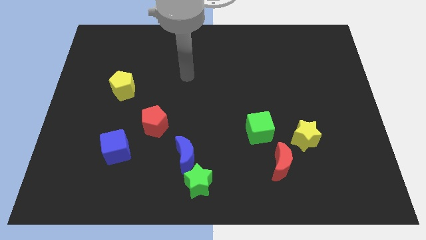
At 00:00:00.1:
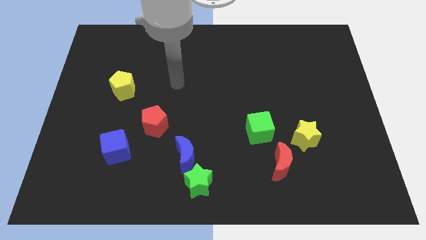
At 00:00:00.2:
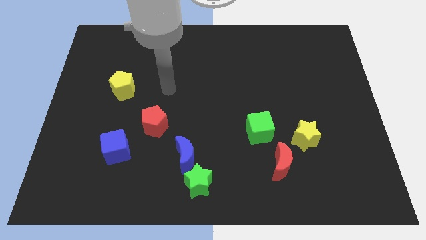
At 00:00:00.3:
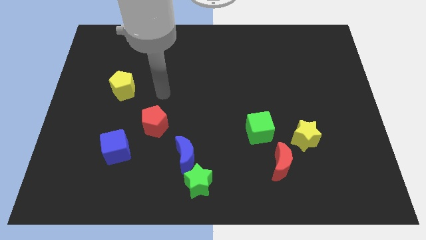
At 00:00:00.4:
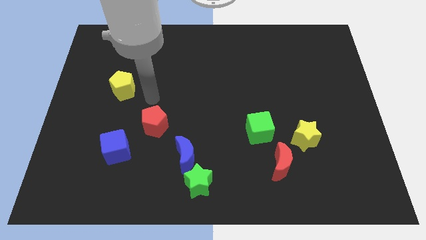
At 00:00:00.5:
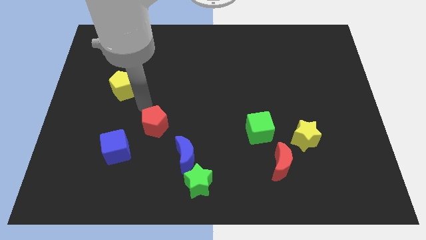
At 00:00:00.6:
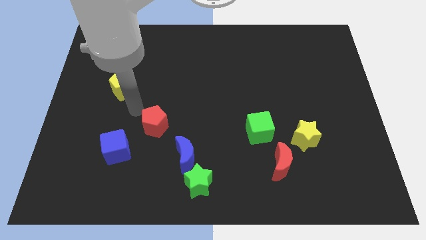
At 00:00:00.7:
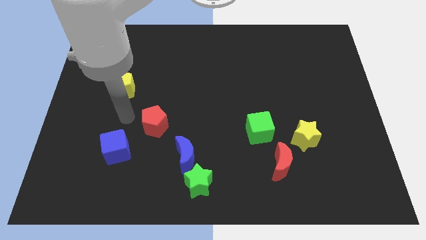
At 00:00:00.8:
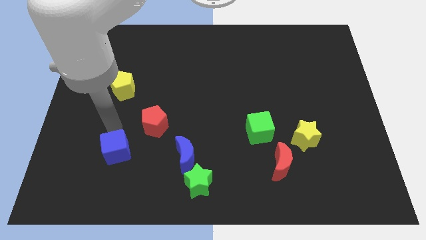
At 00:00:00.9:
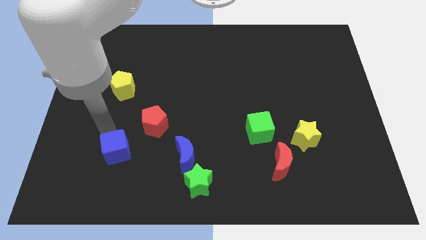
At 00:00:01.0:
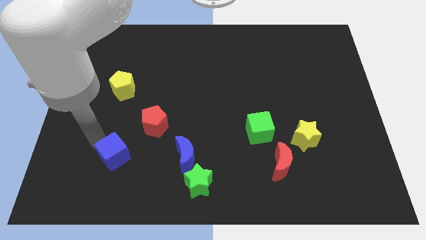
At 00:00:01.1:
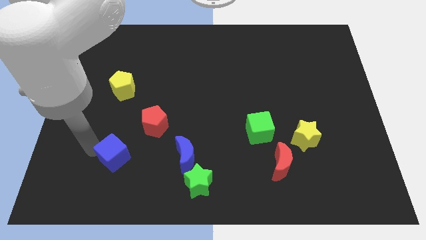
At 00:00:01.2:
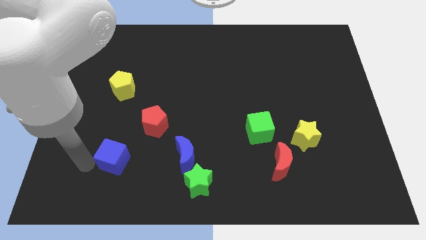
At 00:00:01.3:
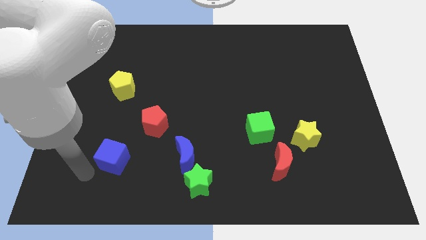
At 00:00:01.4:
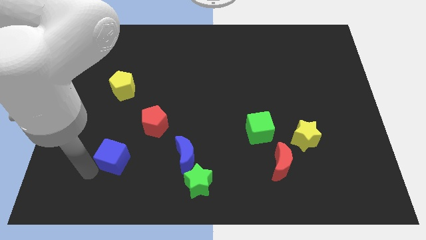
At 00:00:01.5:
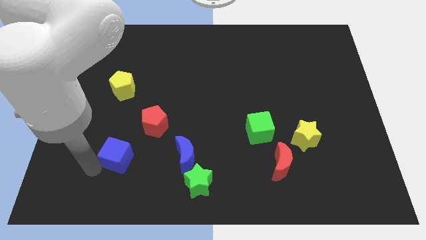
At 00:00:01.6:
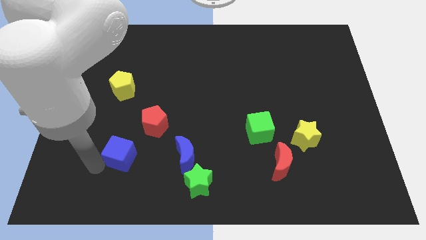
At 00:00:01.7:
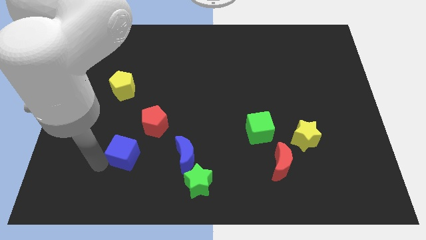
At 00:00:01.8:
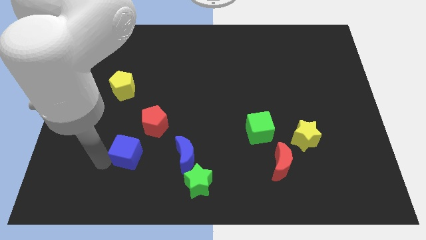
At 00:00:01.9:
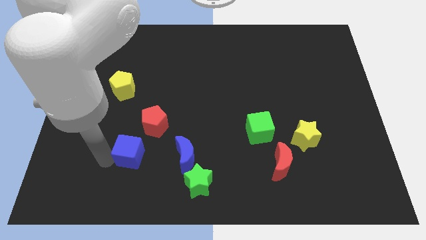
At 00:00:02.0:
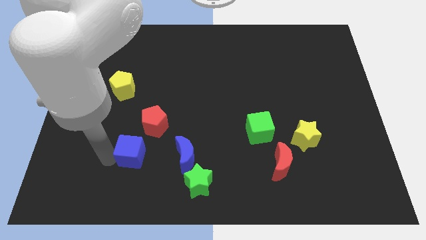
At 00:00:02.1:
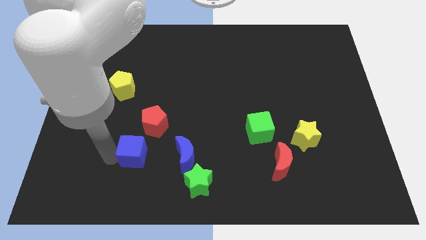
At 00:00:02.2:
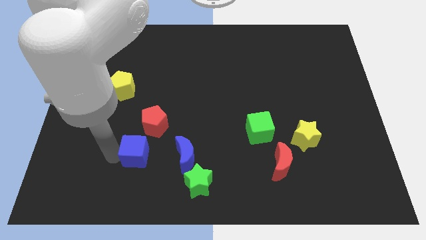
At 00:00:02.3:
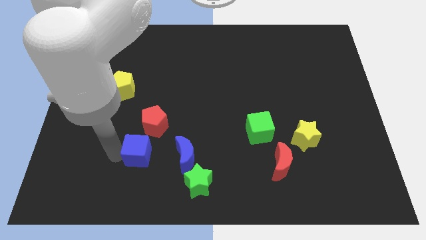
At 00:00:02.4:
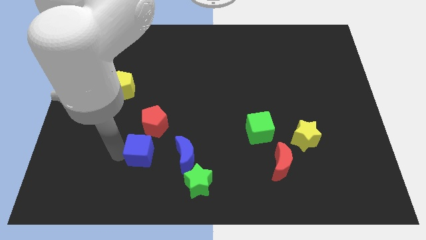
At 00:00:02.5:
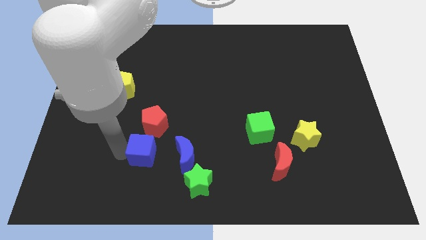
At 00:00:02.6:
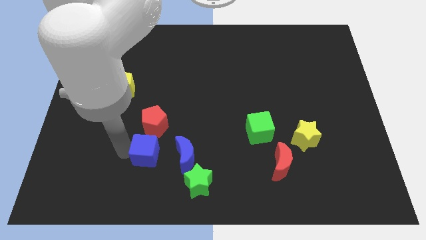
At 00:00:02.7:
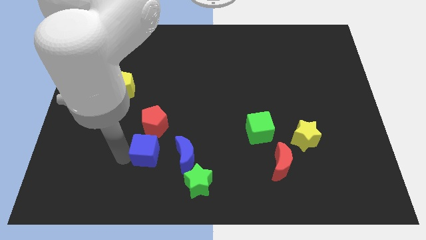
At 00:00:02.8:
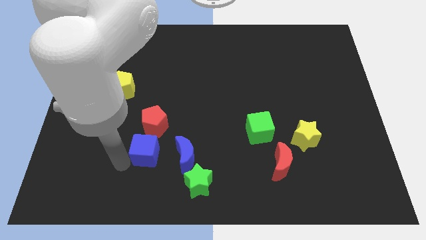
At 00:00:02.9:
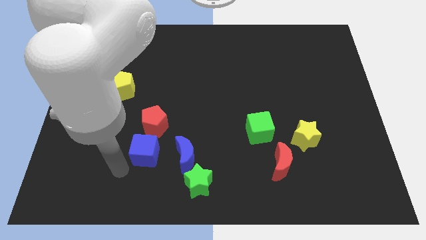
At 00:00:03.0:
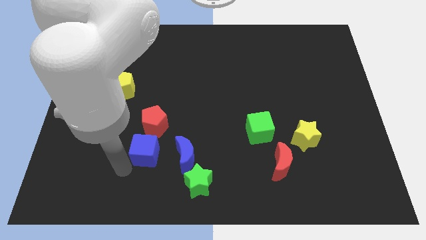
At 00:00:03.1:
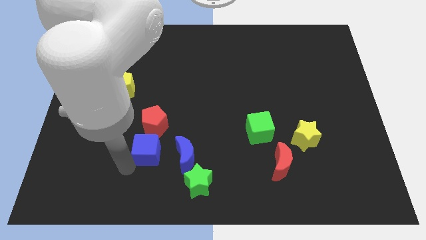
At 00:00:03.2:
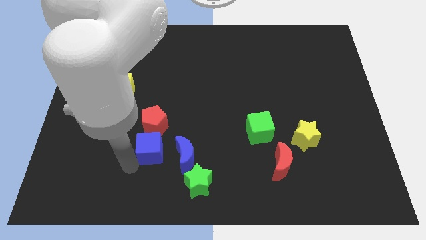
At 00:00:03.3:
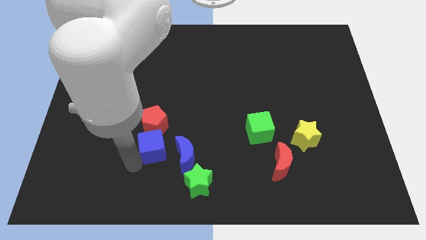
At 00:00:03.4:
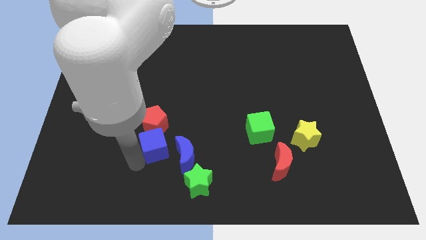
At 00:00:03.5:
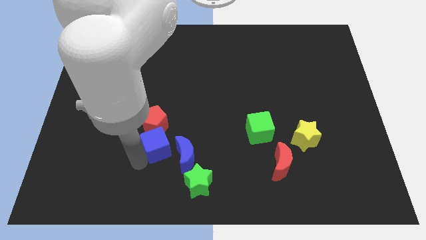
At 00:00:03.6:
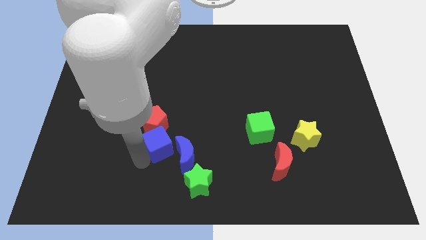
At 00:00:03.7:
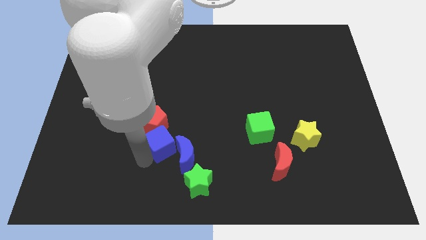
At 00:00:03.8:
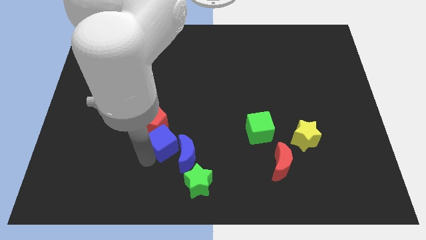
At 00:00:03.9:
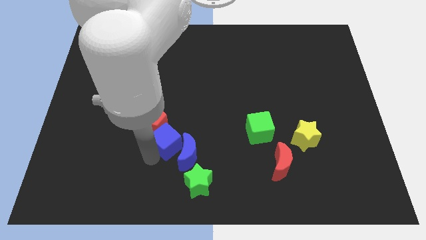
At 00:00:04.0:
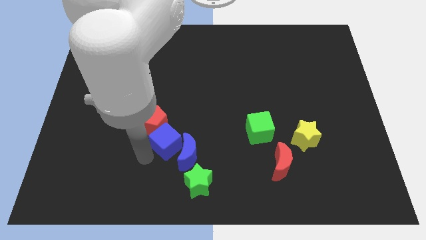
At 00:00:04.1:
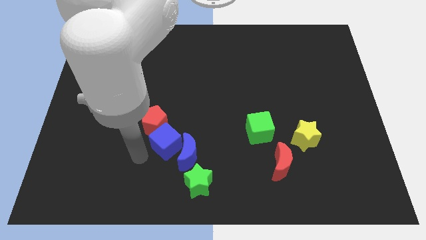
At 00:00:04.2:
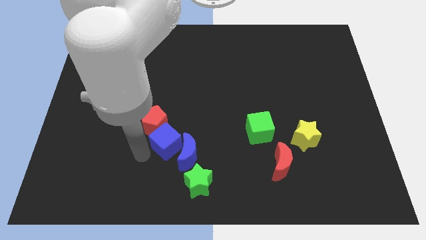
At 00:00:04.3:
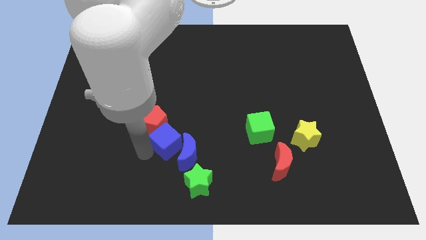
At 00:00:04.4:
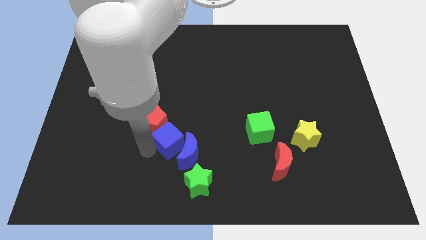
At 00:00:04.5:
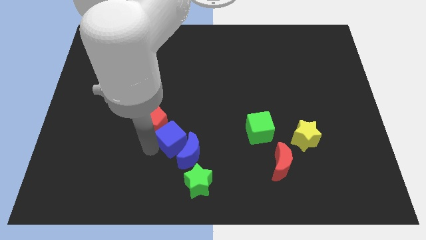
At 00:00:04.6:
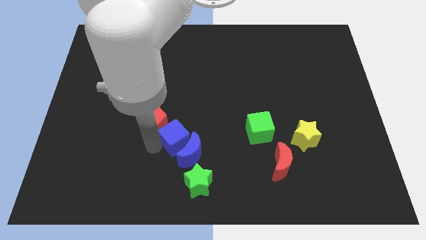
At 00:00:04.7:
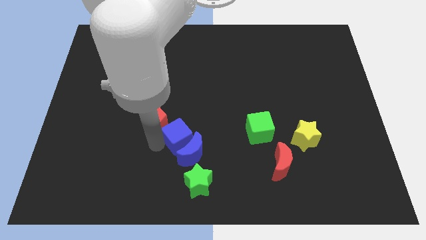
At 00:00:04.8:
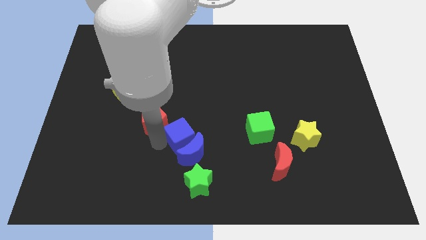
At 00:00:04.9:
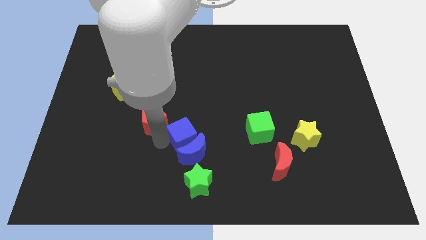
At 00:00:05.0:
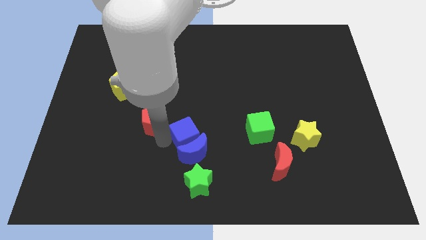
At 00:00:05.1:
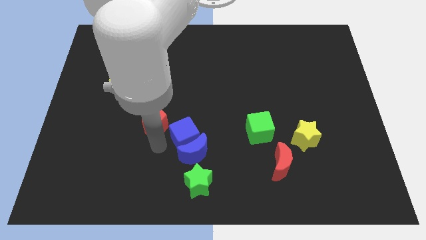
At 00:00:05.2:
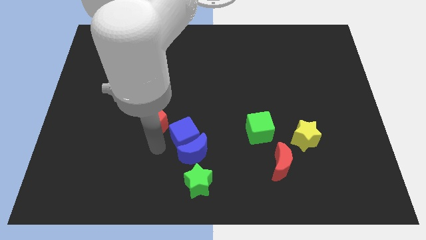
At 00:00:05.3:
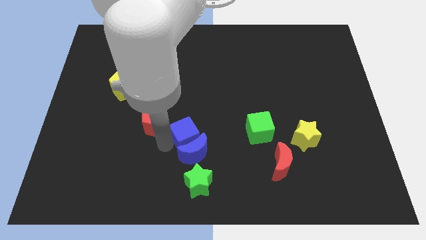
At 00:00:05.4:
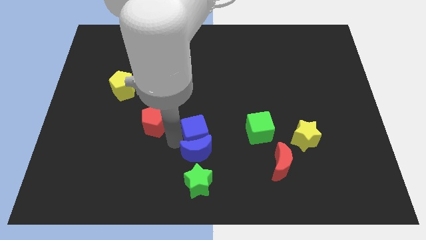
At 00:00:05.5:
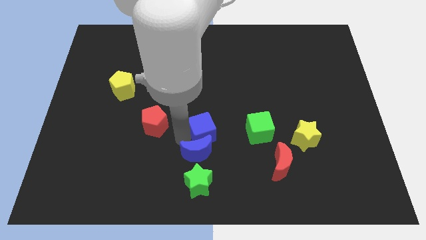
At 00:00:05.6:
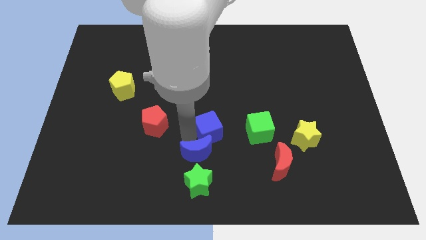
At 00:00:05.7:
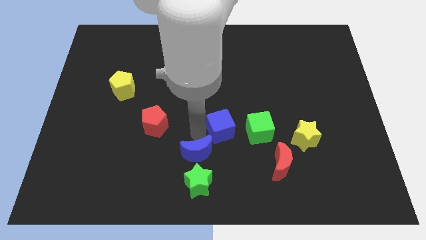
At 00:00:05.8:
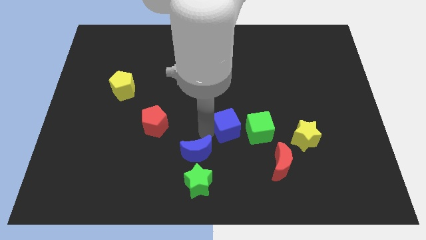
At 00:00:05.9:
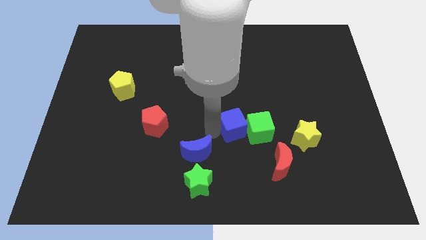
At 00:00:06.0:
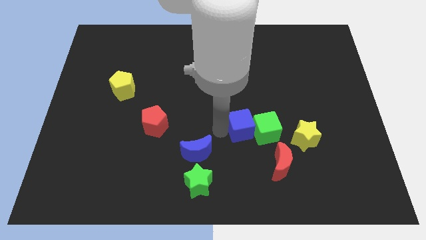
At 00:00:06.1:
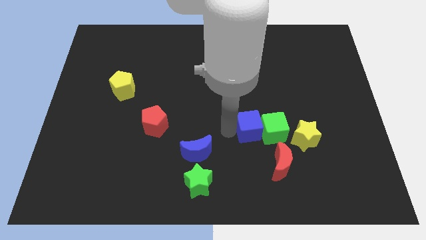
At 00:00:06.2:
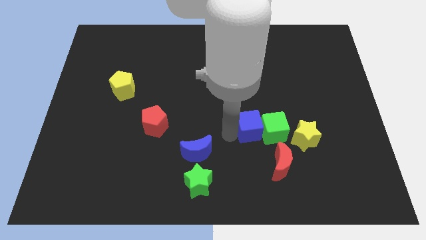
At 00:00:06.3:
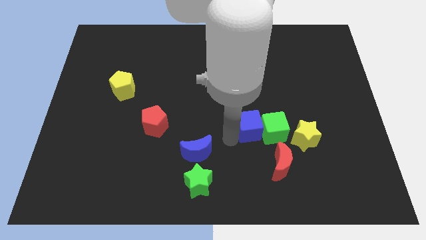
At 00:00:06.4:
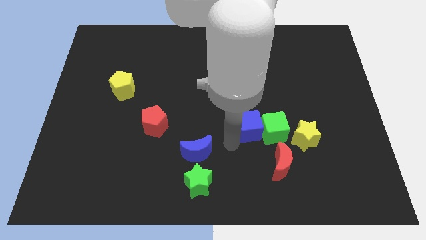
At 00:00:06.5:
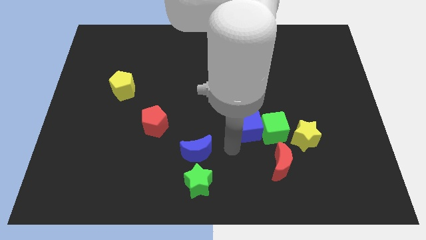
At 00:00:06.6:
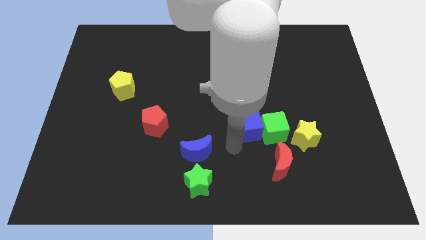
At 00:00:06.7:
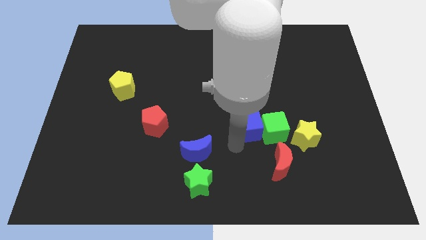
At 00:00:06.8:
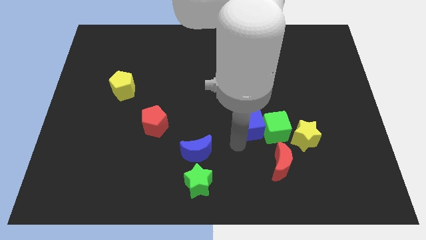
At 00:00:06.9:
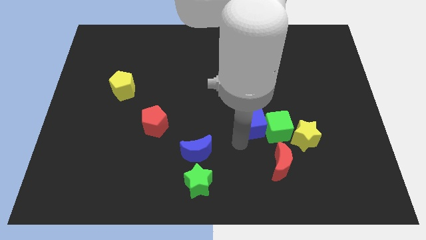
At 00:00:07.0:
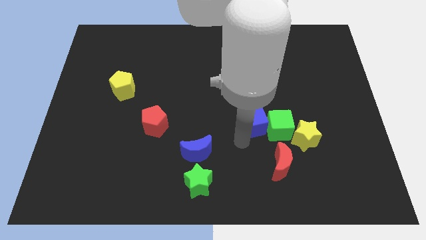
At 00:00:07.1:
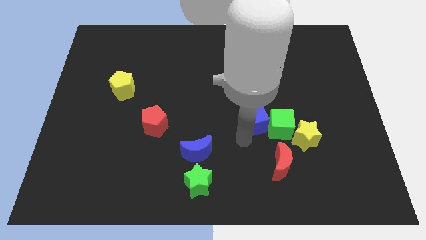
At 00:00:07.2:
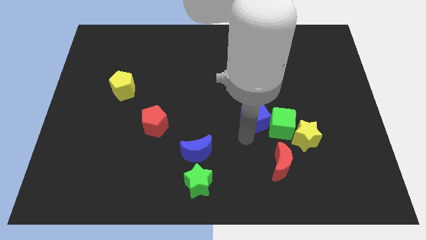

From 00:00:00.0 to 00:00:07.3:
move the blue cube to the top left side of the yellow star
